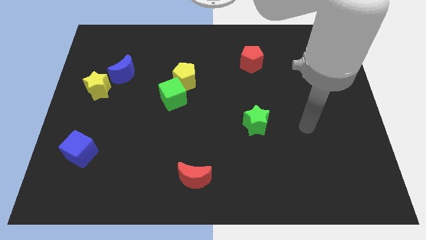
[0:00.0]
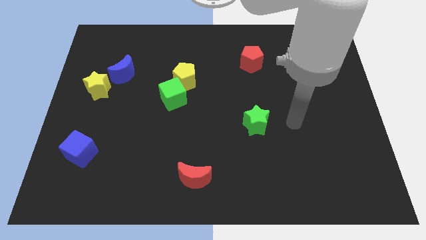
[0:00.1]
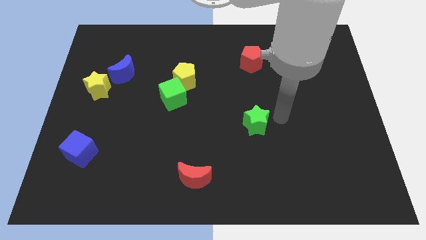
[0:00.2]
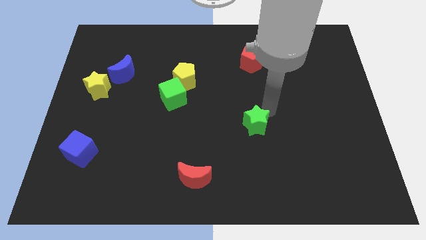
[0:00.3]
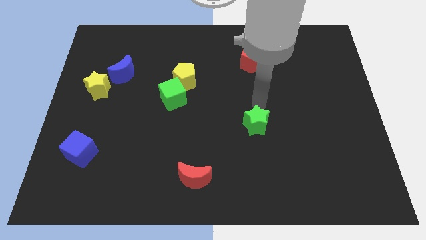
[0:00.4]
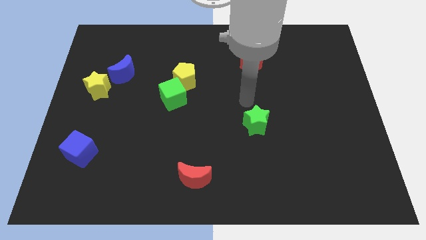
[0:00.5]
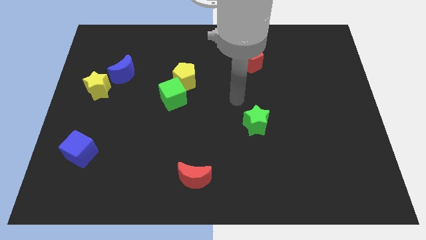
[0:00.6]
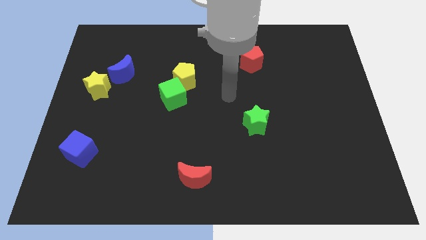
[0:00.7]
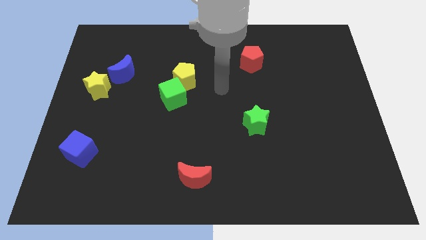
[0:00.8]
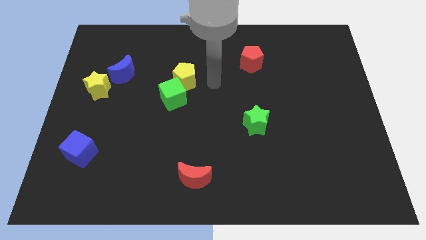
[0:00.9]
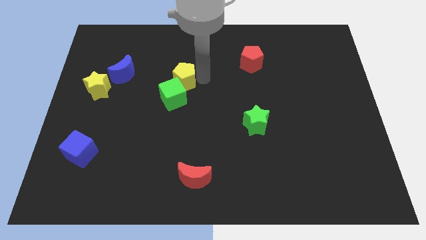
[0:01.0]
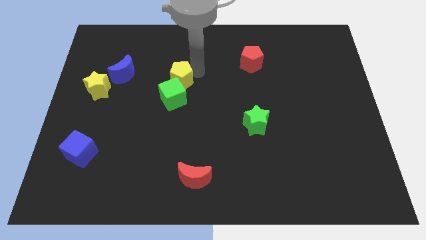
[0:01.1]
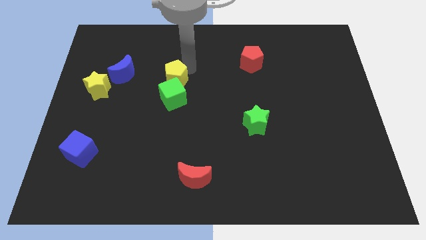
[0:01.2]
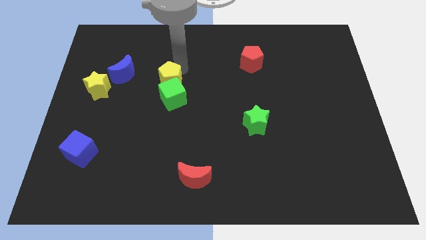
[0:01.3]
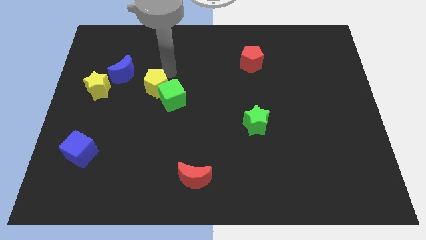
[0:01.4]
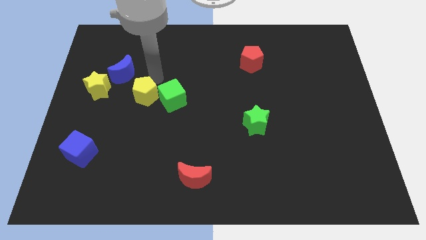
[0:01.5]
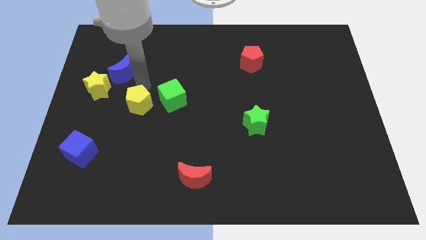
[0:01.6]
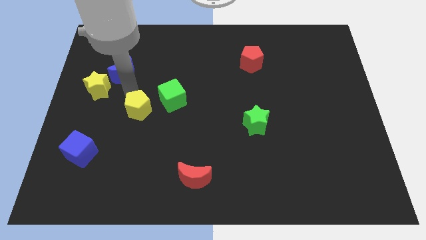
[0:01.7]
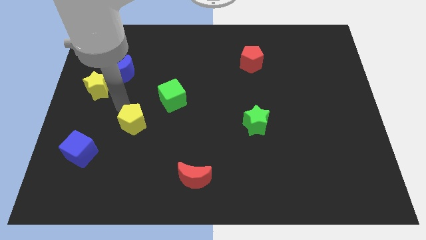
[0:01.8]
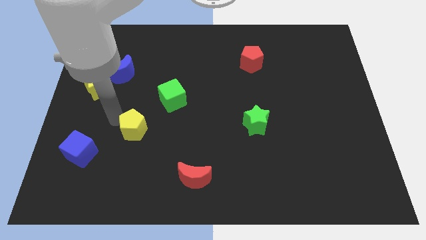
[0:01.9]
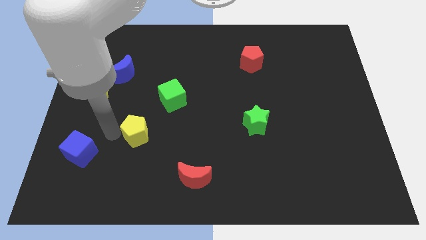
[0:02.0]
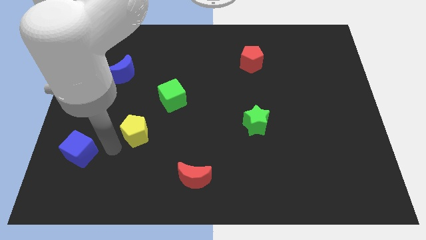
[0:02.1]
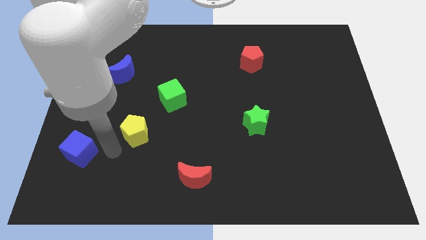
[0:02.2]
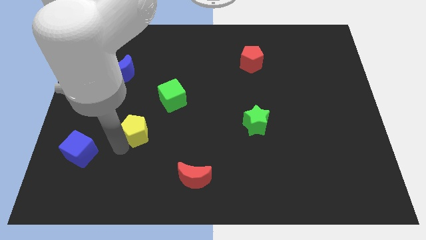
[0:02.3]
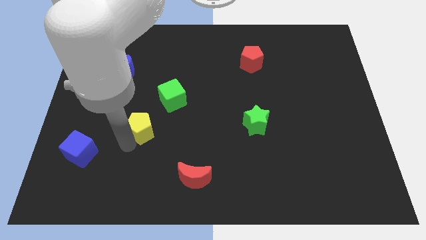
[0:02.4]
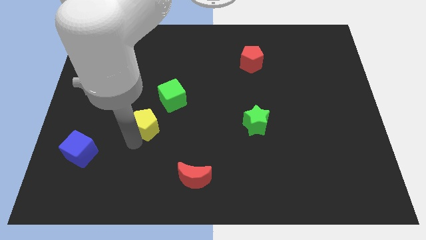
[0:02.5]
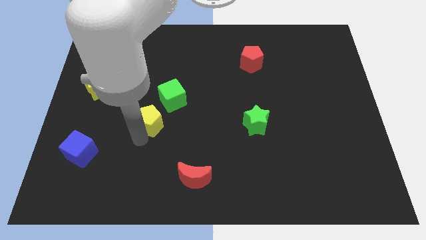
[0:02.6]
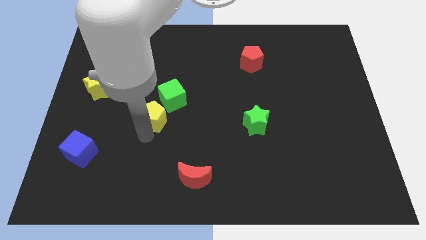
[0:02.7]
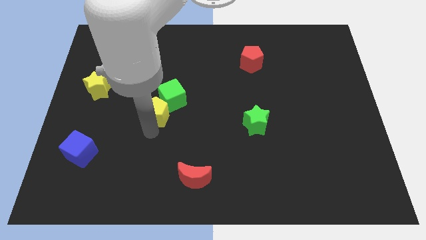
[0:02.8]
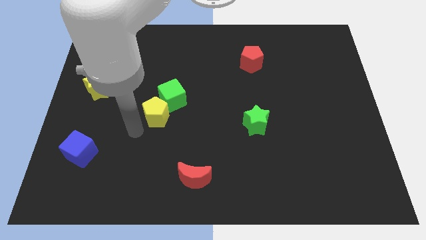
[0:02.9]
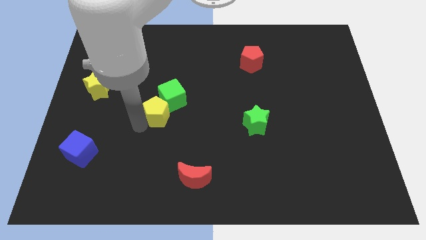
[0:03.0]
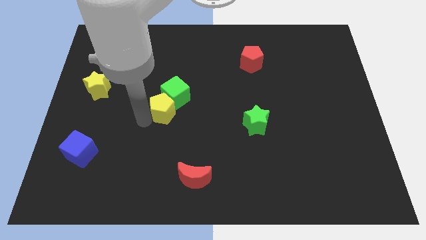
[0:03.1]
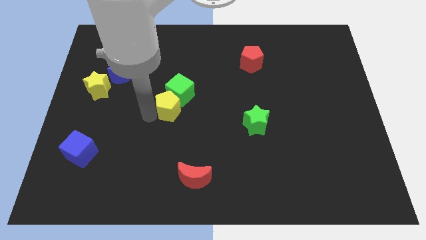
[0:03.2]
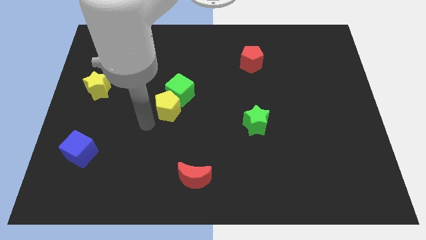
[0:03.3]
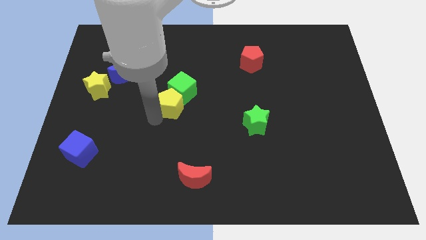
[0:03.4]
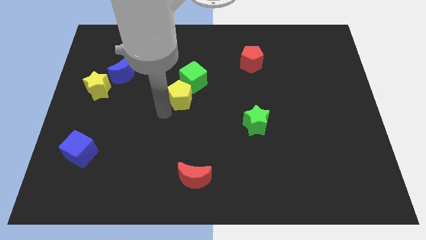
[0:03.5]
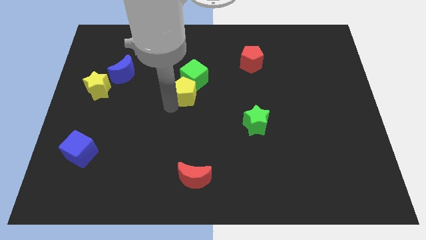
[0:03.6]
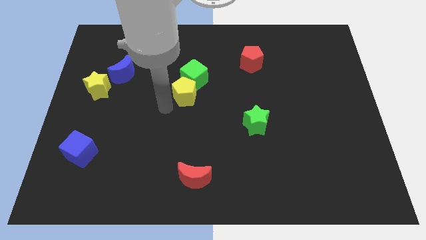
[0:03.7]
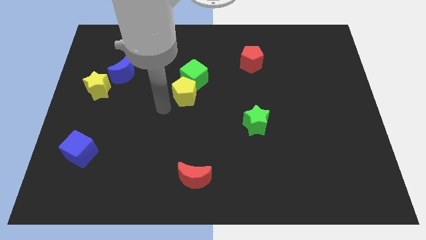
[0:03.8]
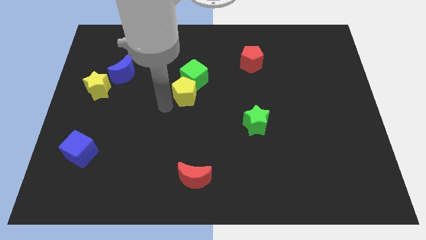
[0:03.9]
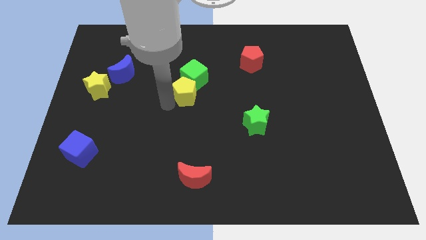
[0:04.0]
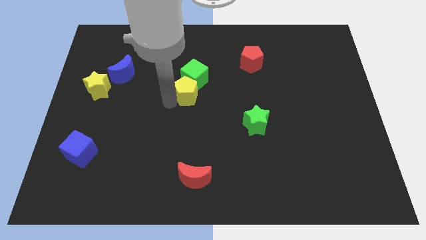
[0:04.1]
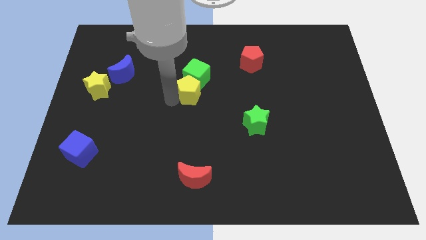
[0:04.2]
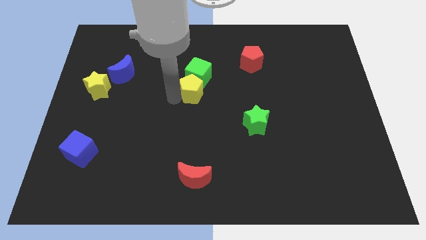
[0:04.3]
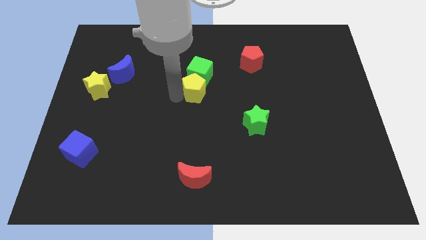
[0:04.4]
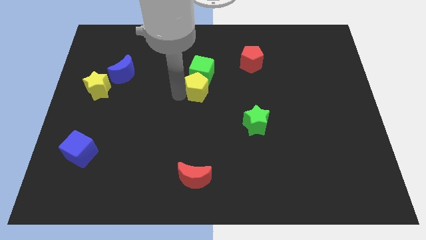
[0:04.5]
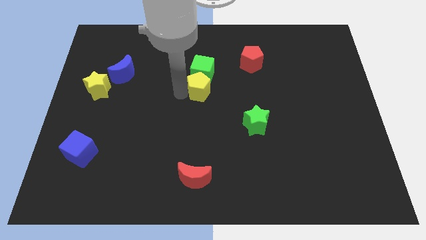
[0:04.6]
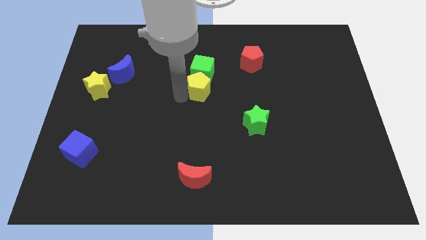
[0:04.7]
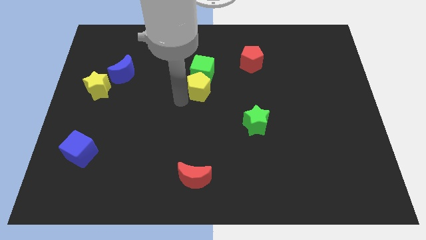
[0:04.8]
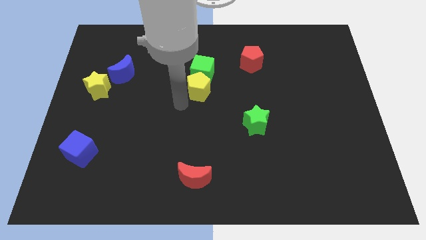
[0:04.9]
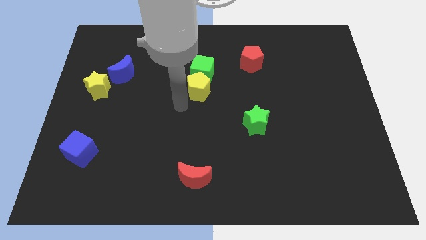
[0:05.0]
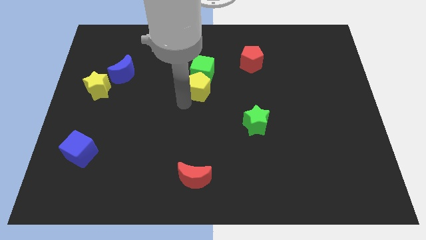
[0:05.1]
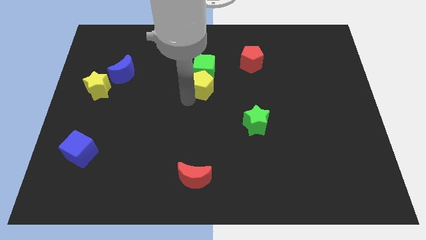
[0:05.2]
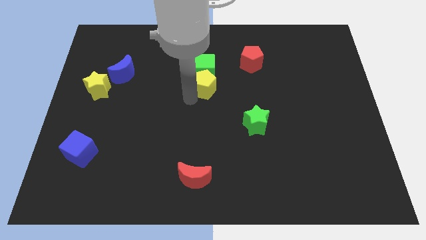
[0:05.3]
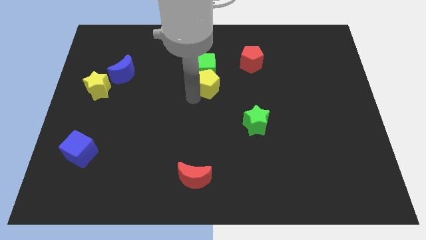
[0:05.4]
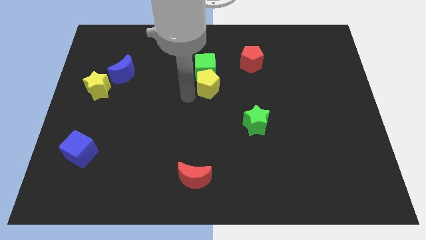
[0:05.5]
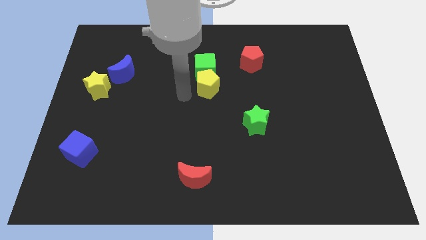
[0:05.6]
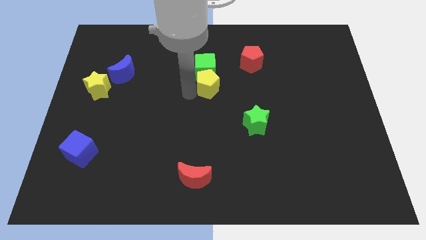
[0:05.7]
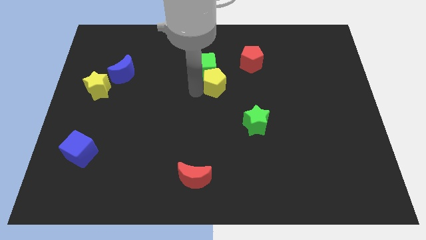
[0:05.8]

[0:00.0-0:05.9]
slightly slide the yellow pentagon to the right

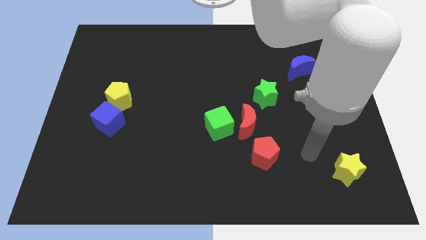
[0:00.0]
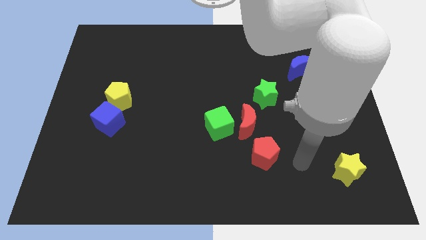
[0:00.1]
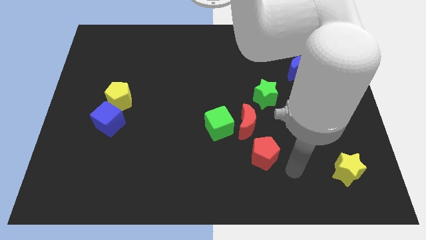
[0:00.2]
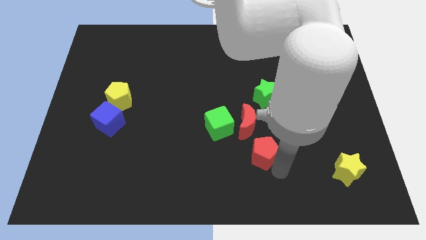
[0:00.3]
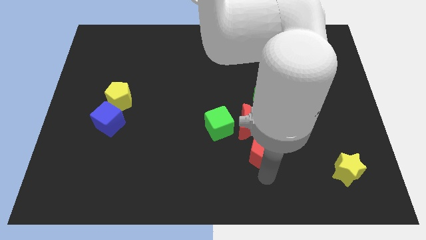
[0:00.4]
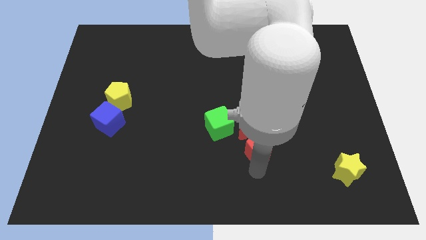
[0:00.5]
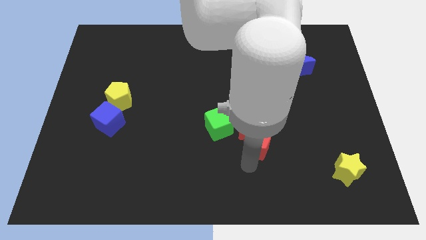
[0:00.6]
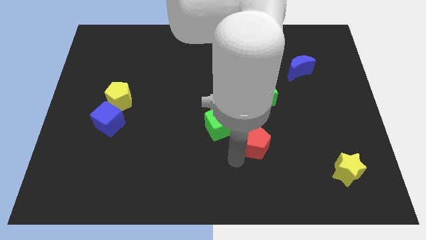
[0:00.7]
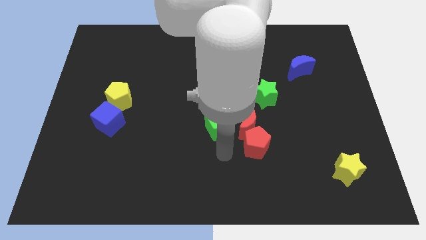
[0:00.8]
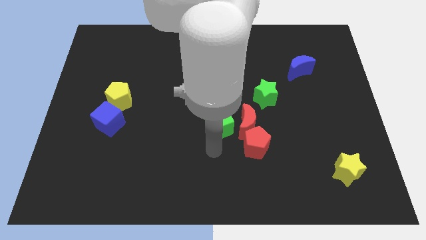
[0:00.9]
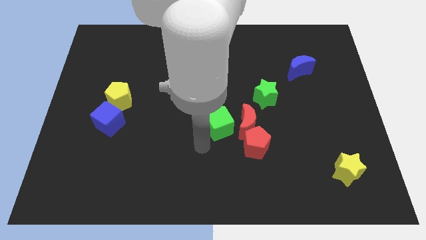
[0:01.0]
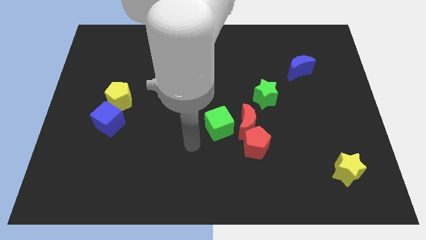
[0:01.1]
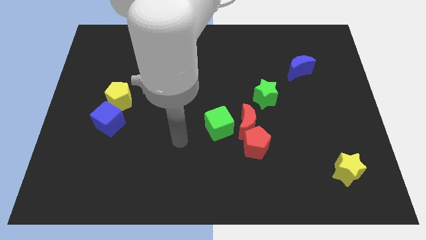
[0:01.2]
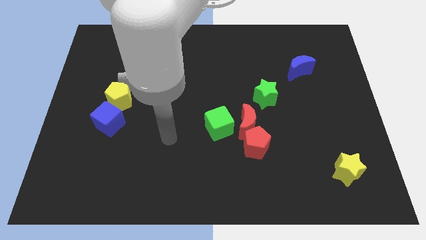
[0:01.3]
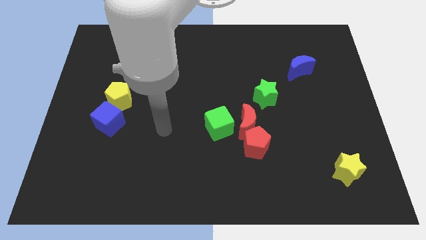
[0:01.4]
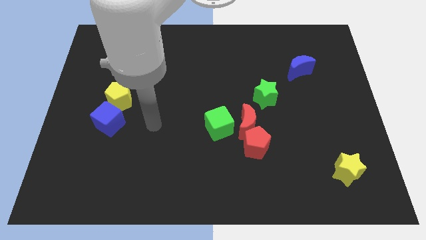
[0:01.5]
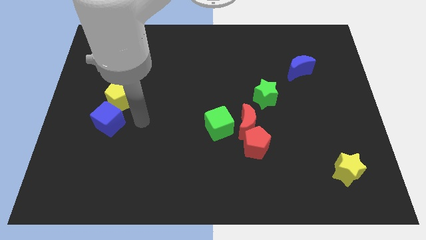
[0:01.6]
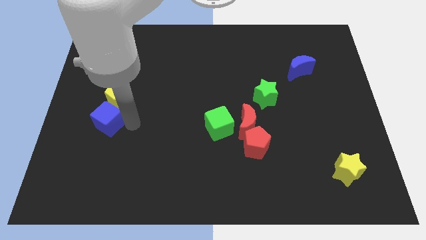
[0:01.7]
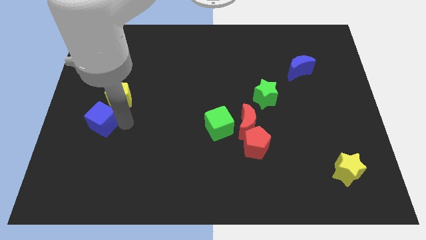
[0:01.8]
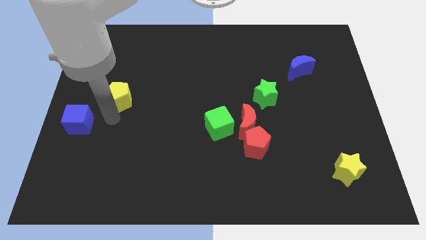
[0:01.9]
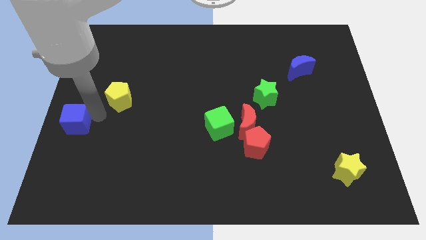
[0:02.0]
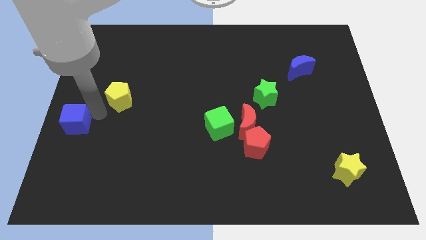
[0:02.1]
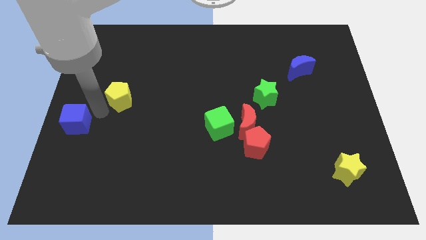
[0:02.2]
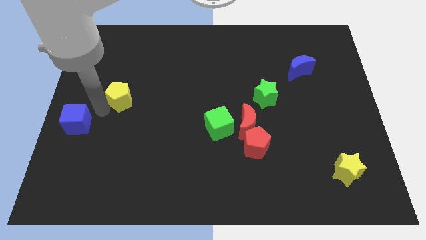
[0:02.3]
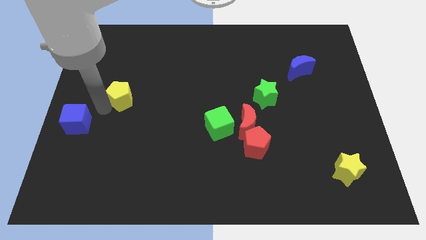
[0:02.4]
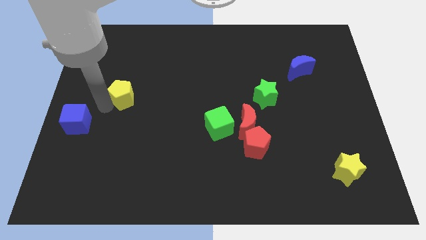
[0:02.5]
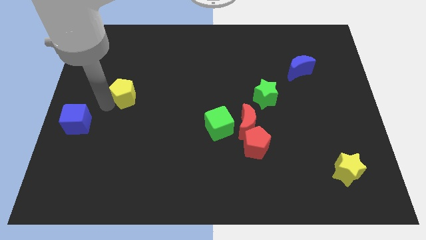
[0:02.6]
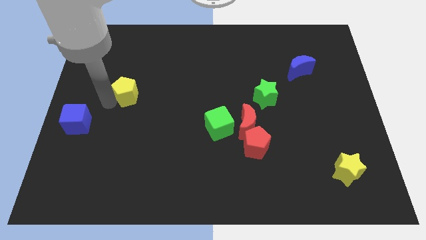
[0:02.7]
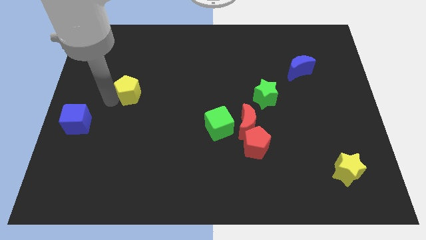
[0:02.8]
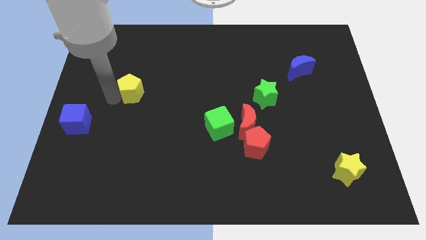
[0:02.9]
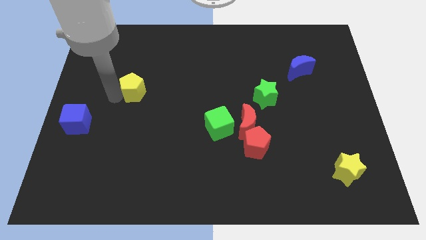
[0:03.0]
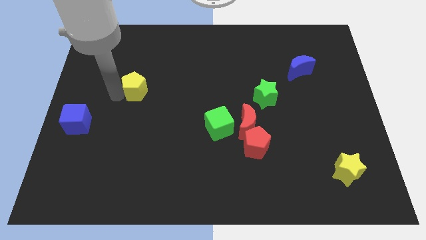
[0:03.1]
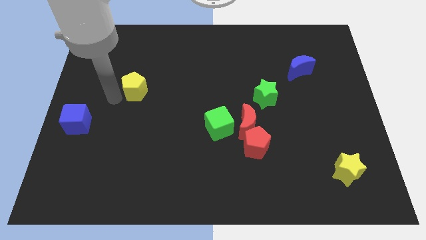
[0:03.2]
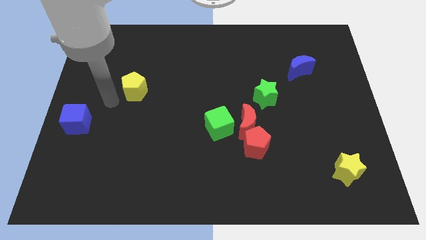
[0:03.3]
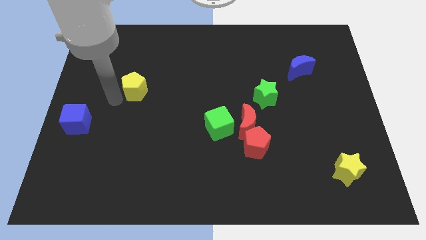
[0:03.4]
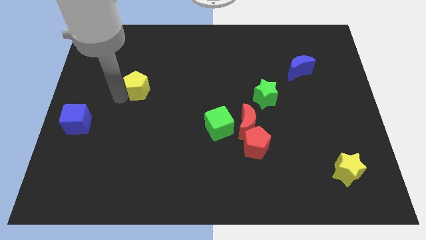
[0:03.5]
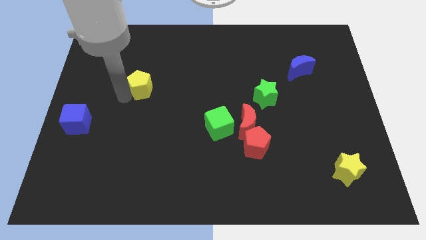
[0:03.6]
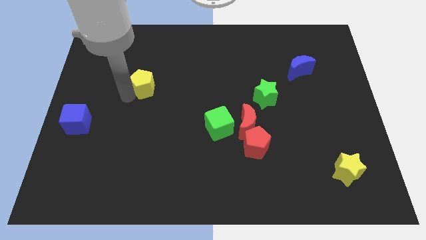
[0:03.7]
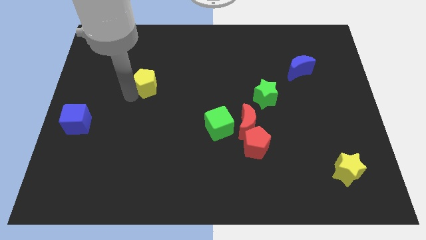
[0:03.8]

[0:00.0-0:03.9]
slightly push the yellow pentagon up and then right
